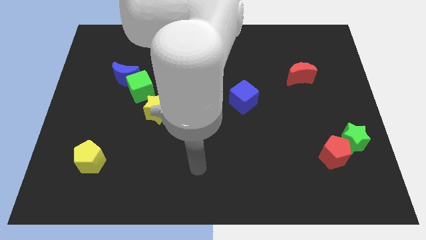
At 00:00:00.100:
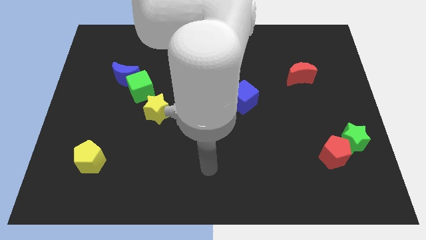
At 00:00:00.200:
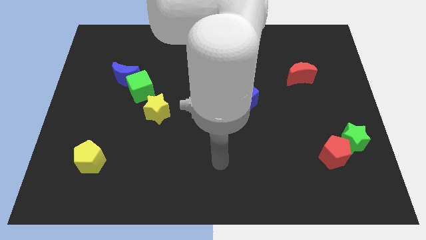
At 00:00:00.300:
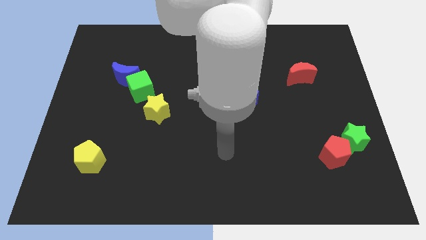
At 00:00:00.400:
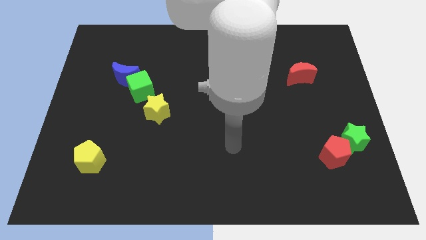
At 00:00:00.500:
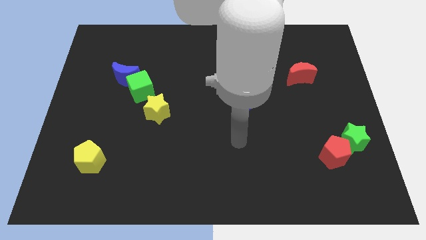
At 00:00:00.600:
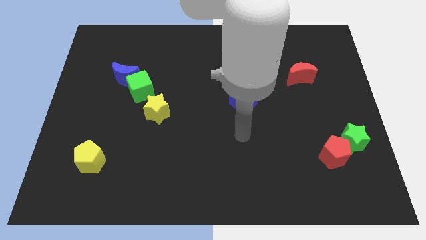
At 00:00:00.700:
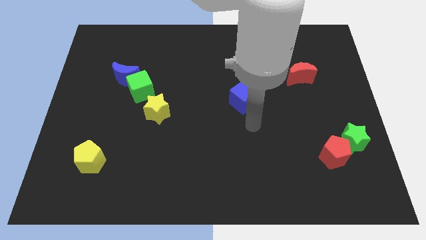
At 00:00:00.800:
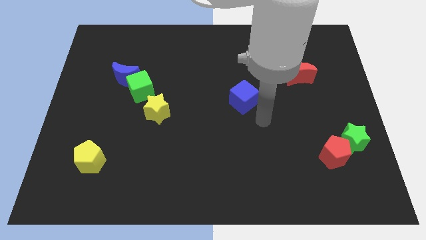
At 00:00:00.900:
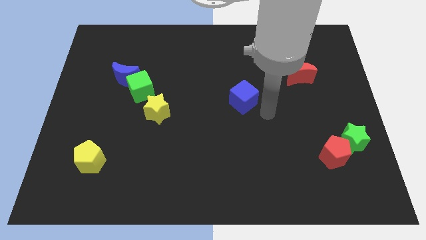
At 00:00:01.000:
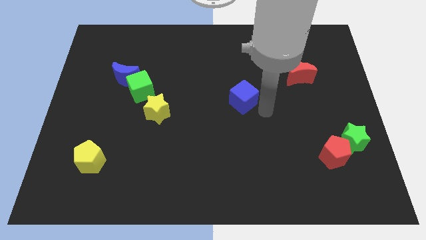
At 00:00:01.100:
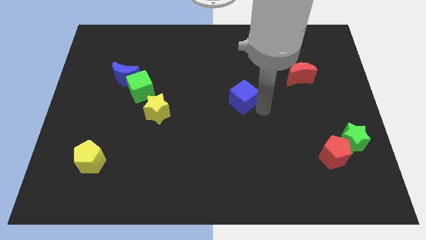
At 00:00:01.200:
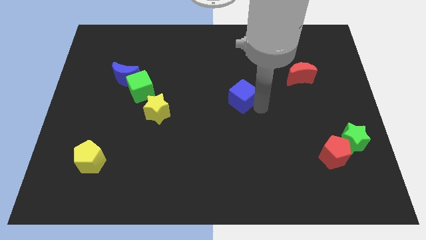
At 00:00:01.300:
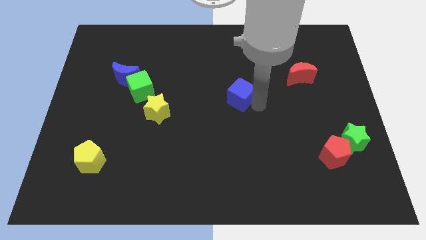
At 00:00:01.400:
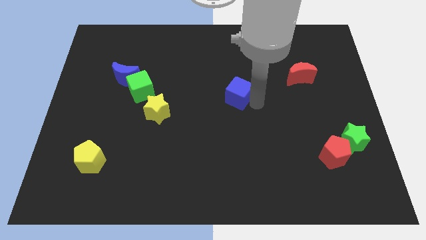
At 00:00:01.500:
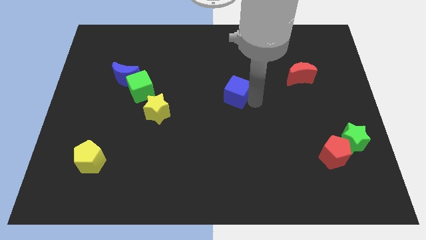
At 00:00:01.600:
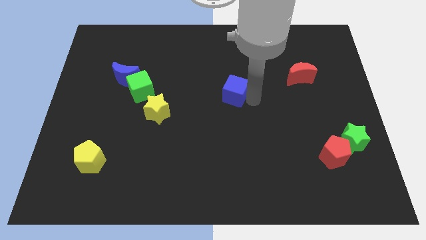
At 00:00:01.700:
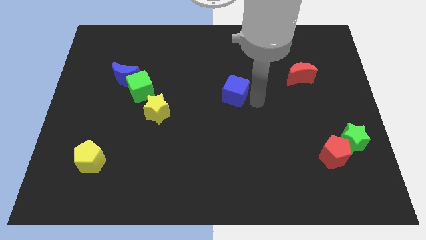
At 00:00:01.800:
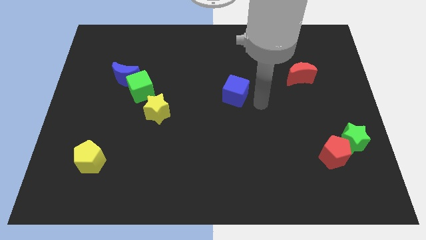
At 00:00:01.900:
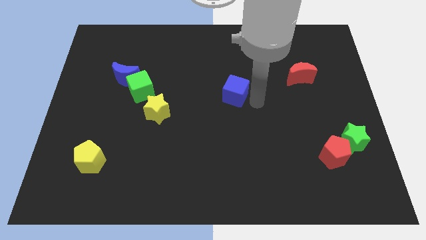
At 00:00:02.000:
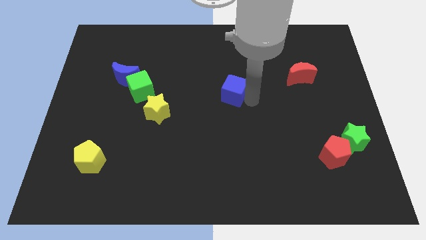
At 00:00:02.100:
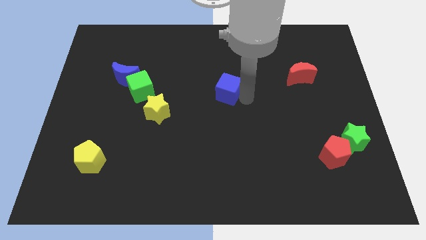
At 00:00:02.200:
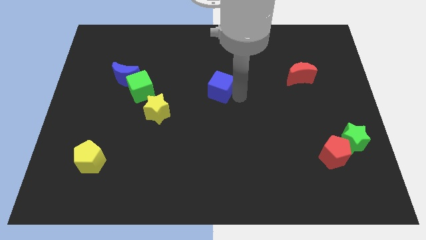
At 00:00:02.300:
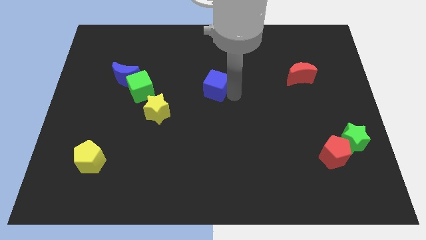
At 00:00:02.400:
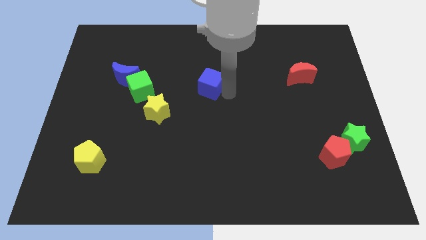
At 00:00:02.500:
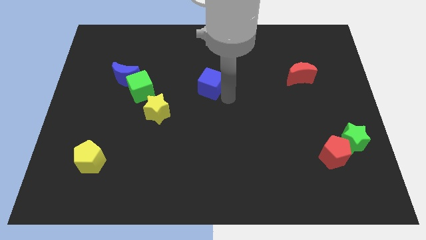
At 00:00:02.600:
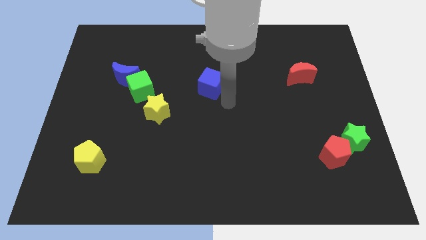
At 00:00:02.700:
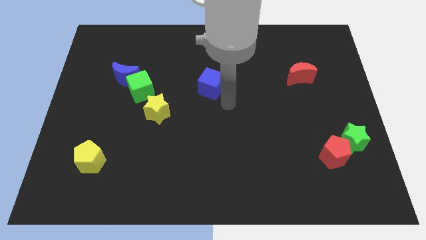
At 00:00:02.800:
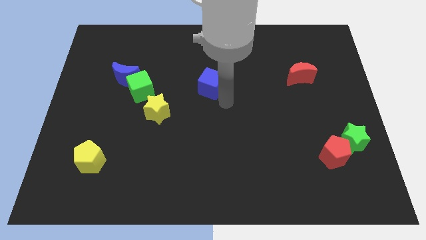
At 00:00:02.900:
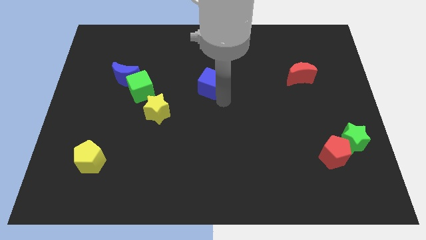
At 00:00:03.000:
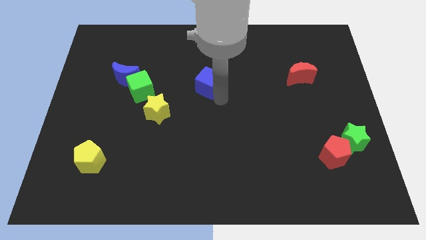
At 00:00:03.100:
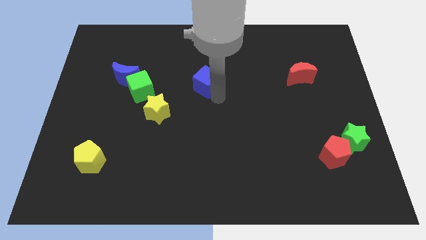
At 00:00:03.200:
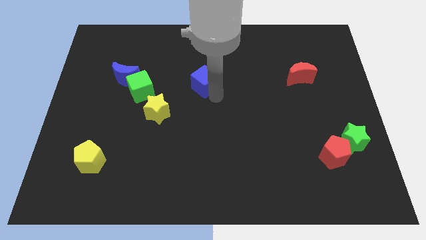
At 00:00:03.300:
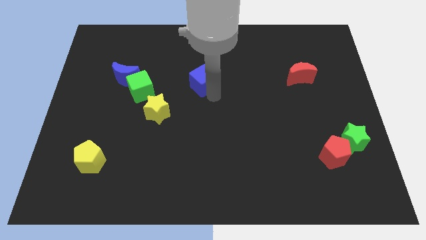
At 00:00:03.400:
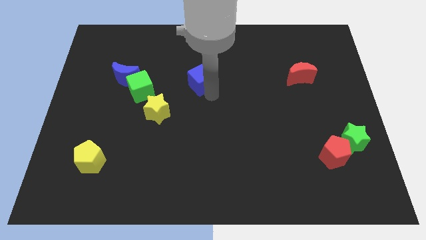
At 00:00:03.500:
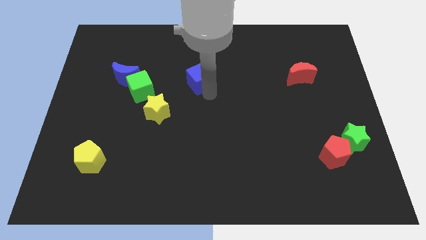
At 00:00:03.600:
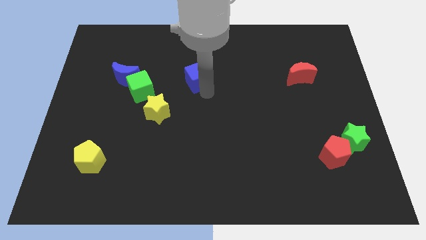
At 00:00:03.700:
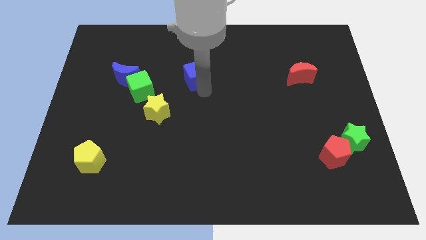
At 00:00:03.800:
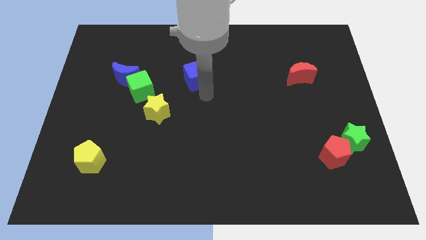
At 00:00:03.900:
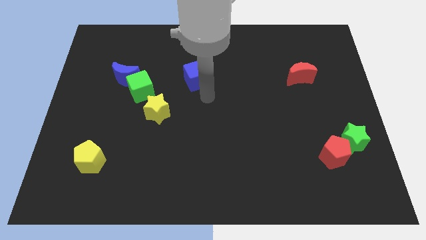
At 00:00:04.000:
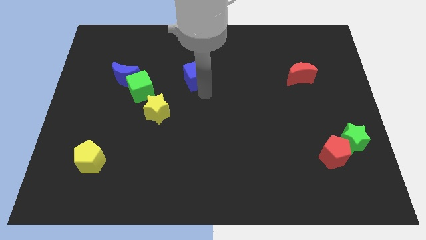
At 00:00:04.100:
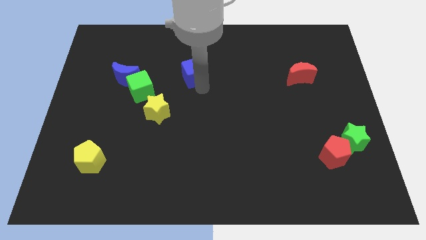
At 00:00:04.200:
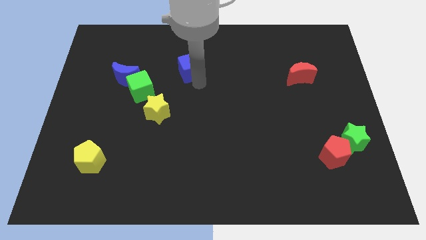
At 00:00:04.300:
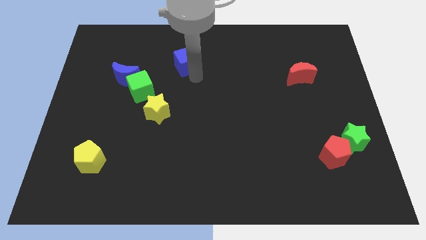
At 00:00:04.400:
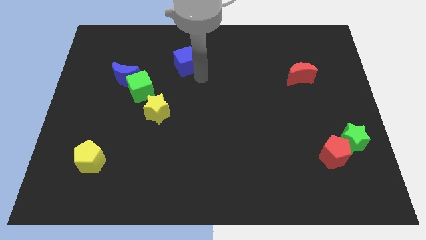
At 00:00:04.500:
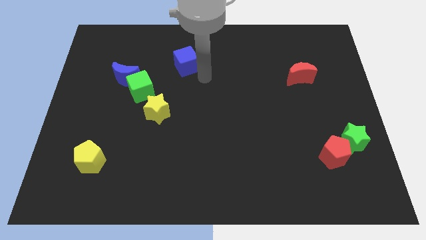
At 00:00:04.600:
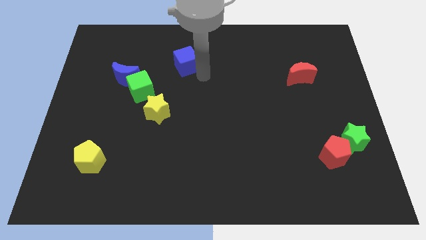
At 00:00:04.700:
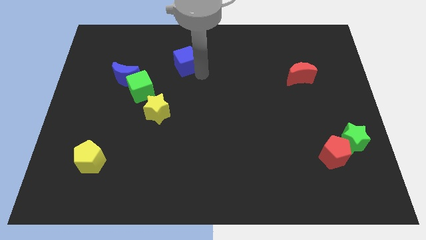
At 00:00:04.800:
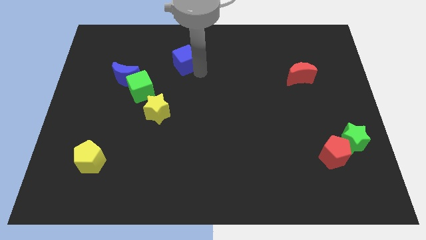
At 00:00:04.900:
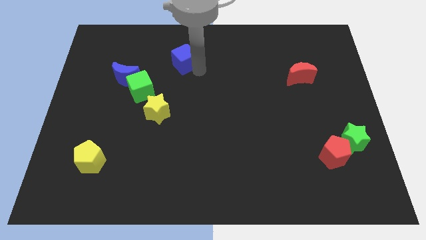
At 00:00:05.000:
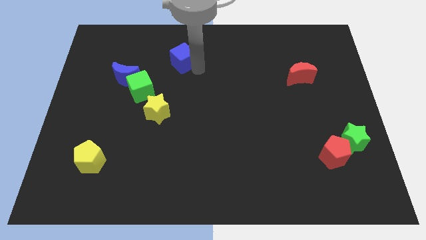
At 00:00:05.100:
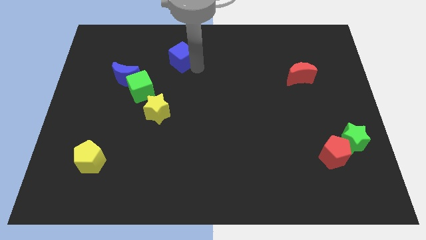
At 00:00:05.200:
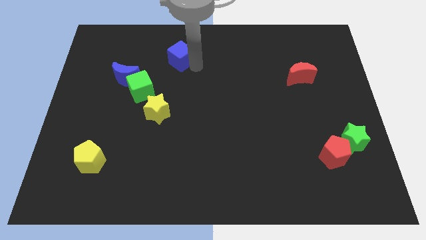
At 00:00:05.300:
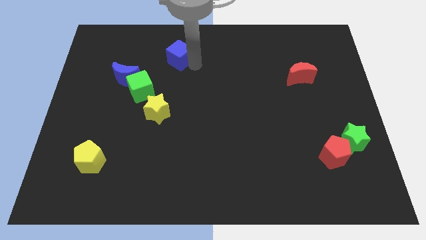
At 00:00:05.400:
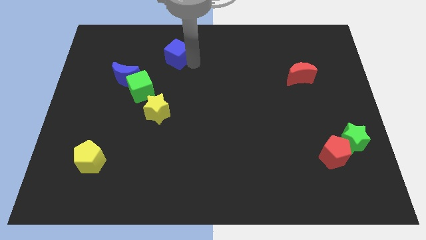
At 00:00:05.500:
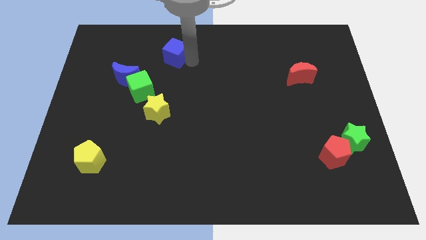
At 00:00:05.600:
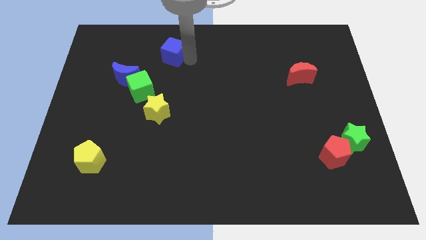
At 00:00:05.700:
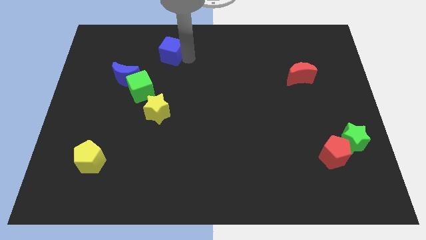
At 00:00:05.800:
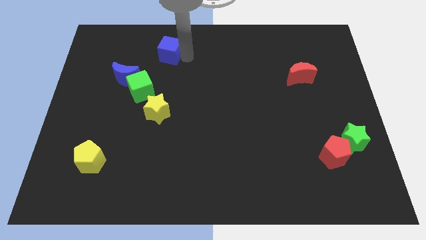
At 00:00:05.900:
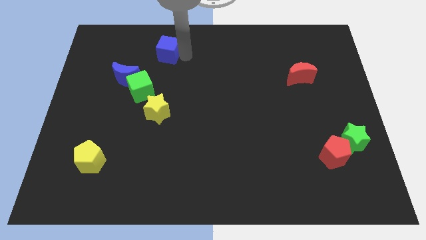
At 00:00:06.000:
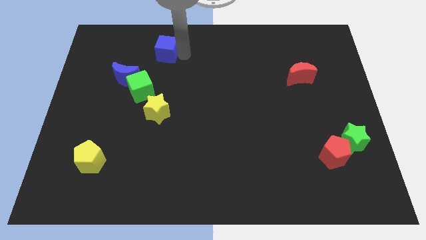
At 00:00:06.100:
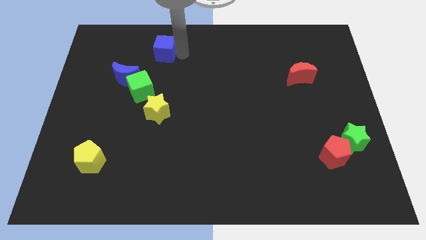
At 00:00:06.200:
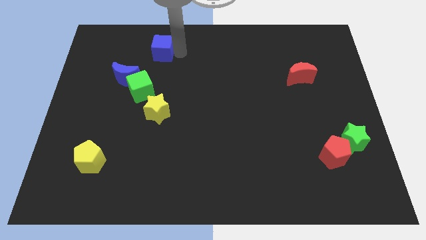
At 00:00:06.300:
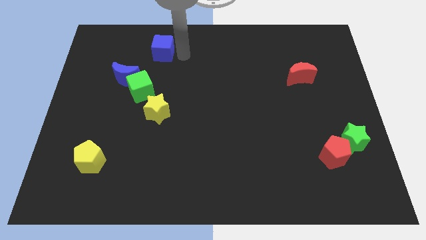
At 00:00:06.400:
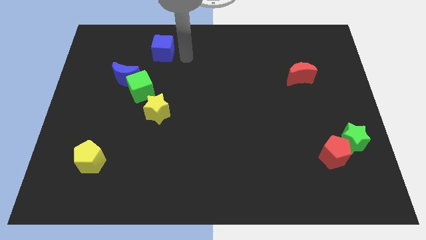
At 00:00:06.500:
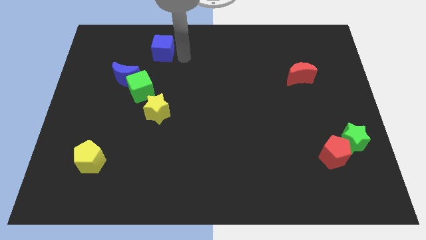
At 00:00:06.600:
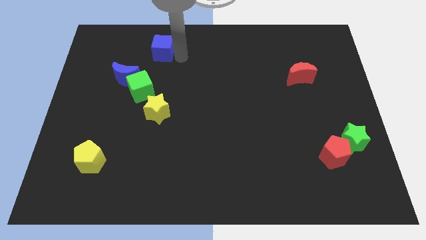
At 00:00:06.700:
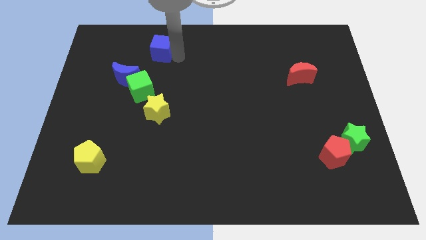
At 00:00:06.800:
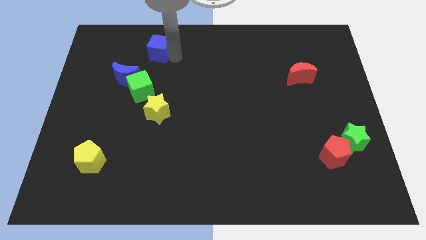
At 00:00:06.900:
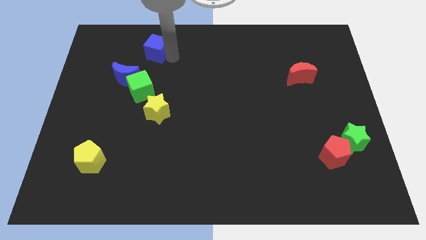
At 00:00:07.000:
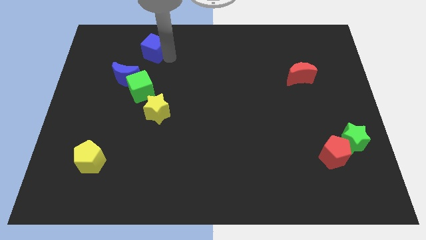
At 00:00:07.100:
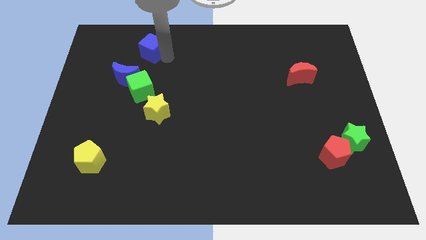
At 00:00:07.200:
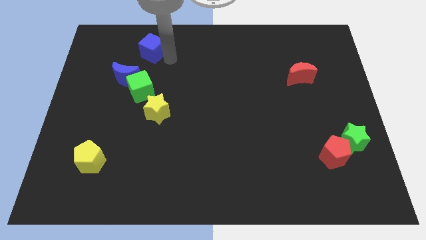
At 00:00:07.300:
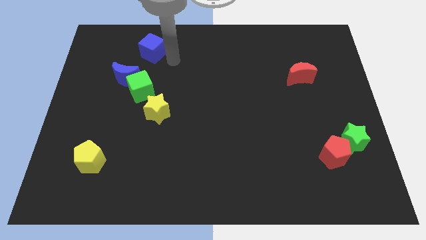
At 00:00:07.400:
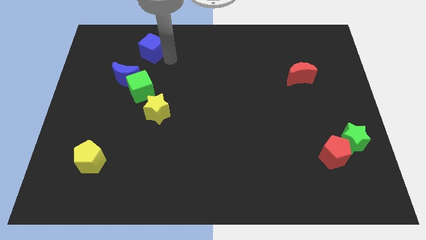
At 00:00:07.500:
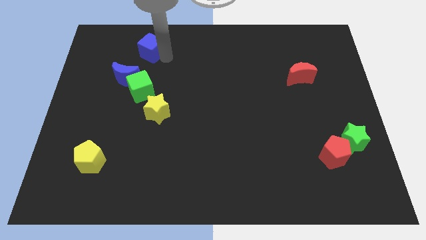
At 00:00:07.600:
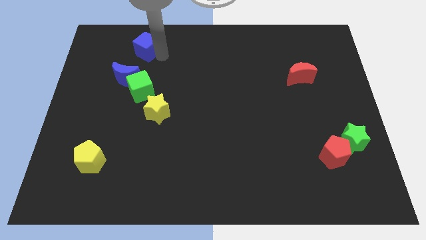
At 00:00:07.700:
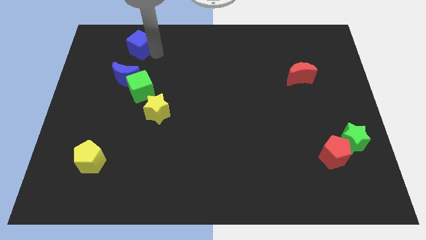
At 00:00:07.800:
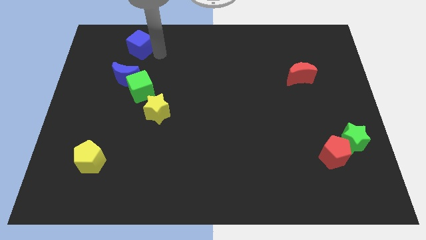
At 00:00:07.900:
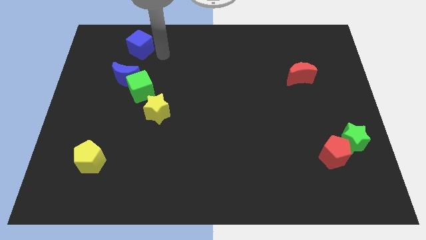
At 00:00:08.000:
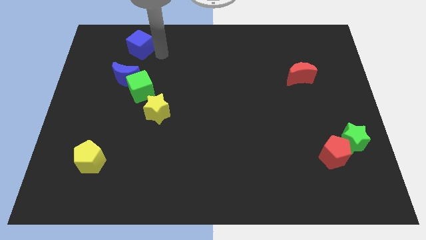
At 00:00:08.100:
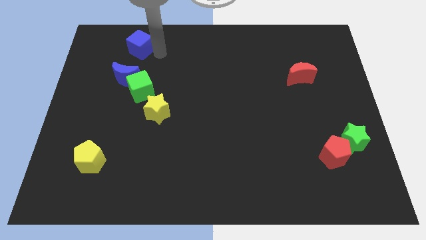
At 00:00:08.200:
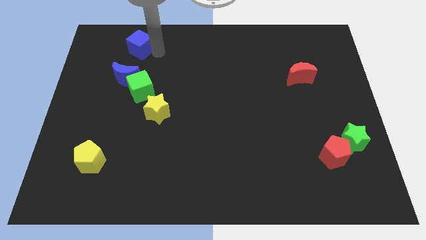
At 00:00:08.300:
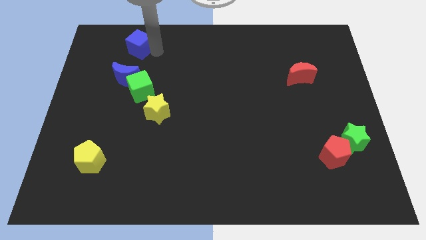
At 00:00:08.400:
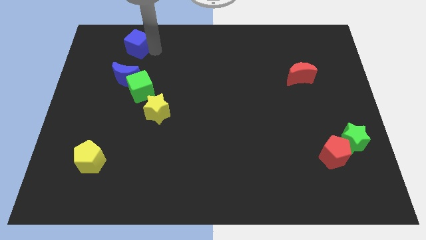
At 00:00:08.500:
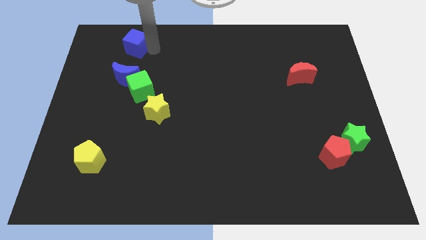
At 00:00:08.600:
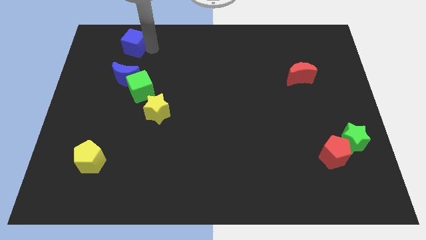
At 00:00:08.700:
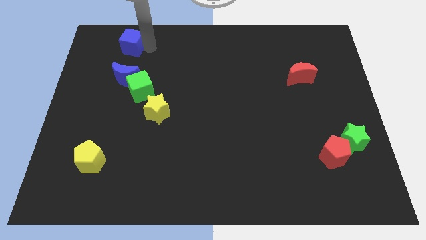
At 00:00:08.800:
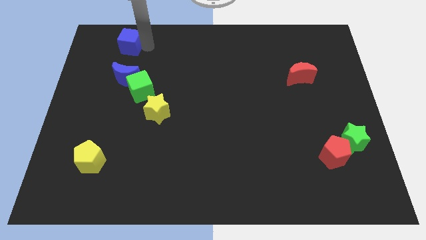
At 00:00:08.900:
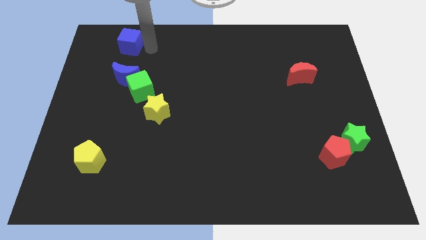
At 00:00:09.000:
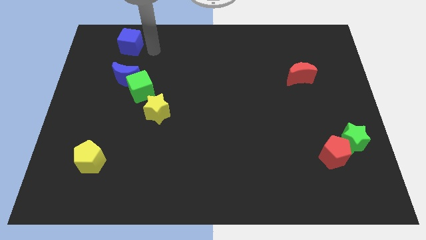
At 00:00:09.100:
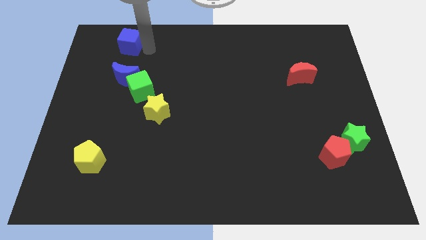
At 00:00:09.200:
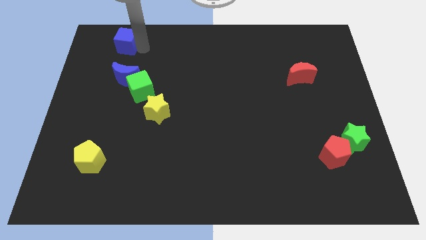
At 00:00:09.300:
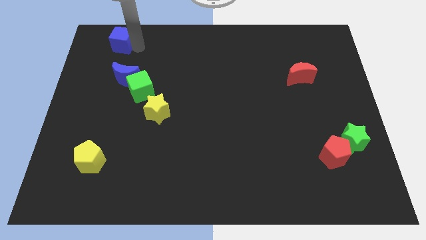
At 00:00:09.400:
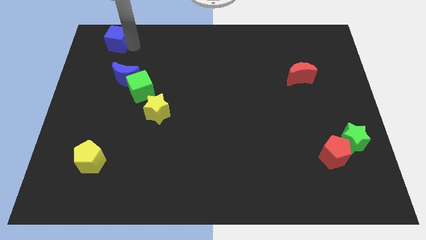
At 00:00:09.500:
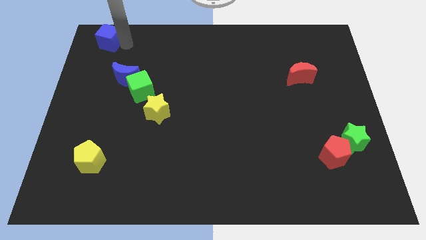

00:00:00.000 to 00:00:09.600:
move the blue cube to the top left of the board
